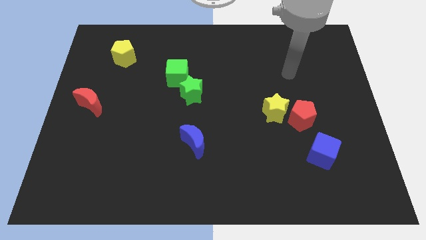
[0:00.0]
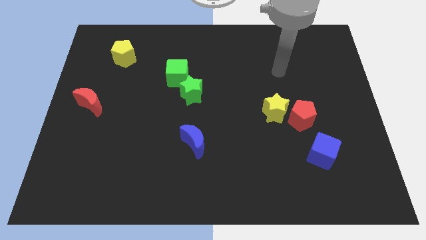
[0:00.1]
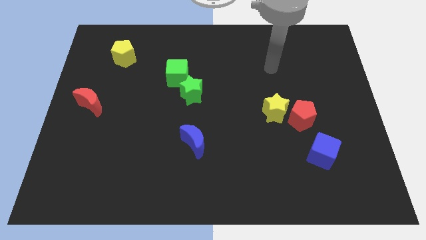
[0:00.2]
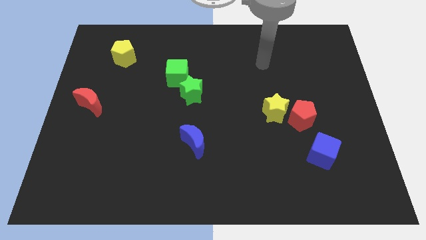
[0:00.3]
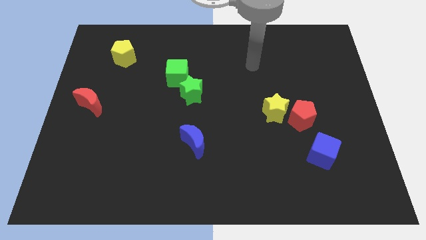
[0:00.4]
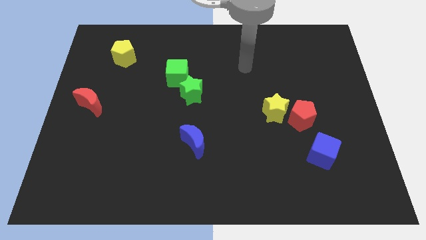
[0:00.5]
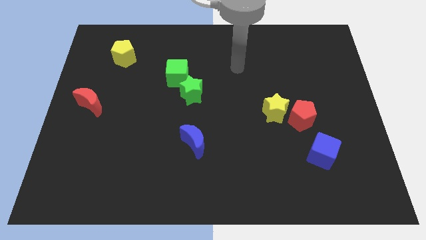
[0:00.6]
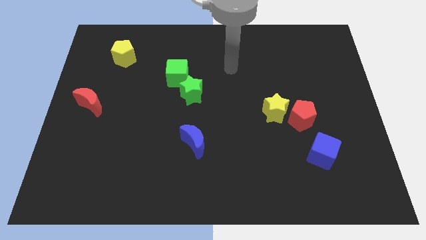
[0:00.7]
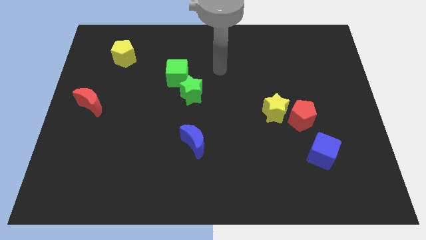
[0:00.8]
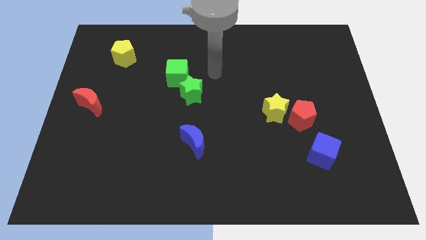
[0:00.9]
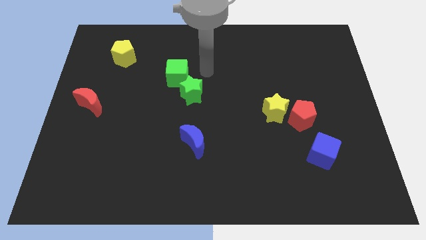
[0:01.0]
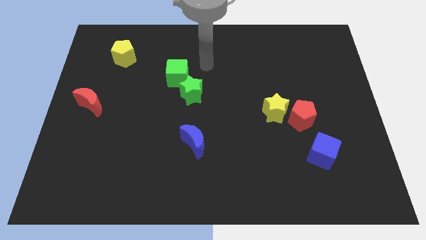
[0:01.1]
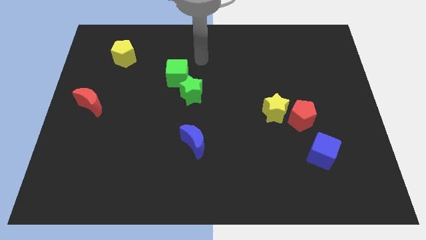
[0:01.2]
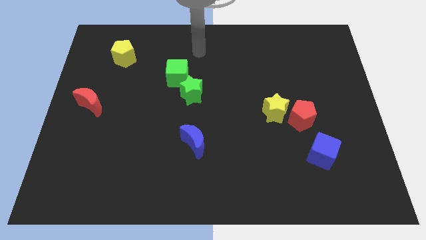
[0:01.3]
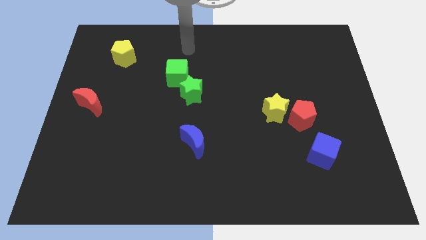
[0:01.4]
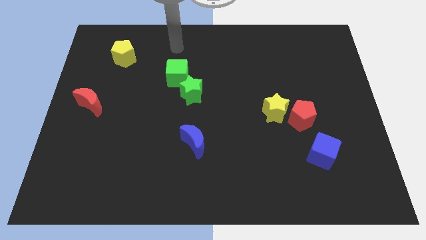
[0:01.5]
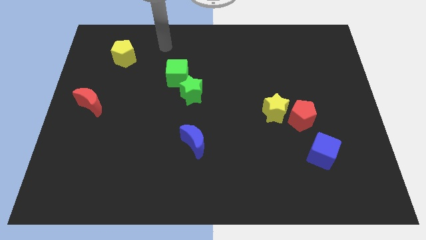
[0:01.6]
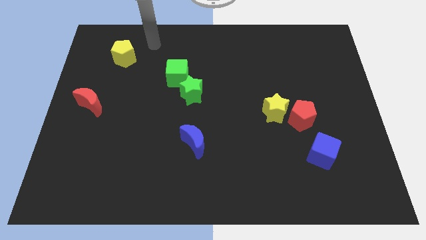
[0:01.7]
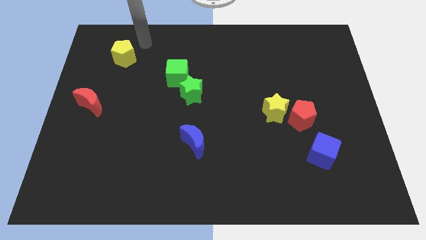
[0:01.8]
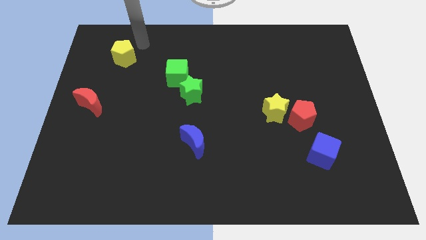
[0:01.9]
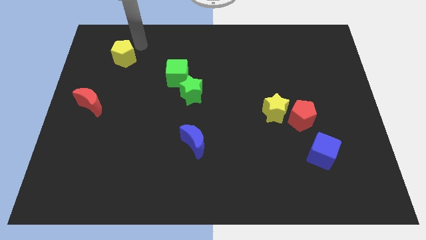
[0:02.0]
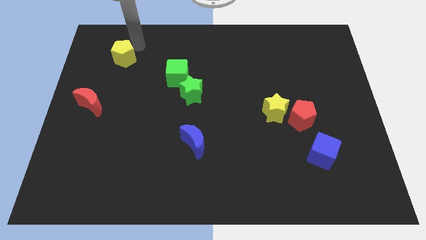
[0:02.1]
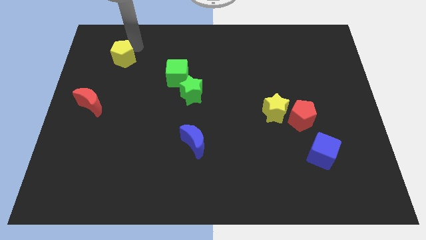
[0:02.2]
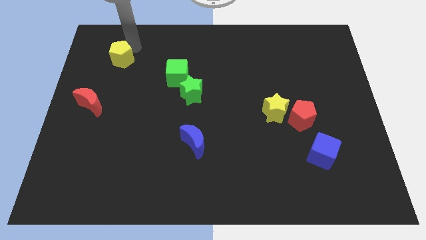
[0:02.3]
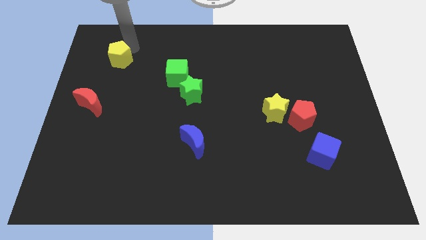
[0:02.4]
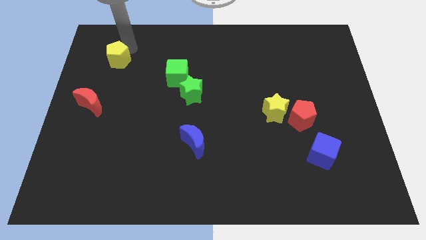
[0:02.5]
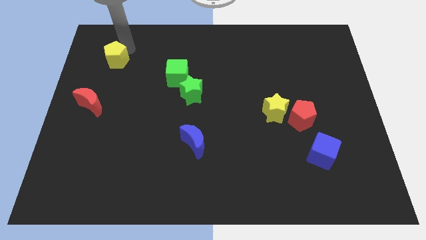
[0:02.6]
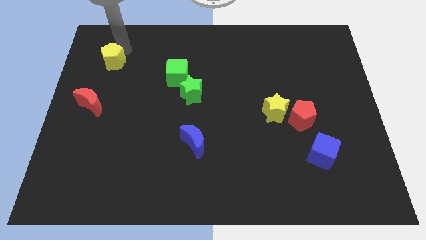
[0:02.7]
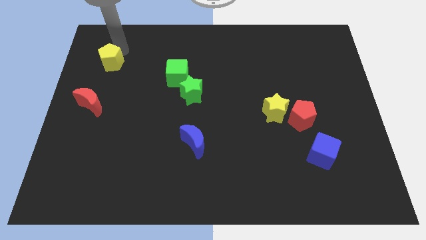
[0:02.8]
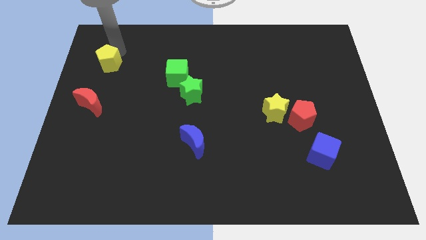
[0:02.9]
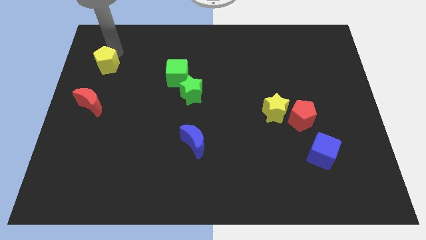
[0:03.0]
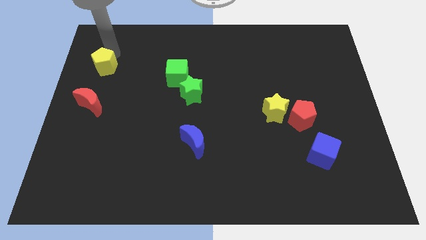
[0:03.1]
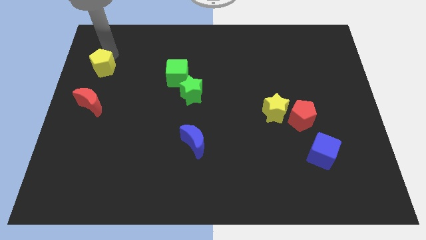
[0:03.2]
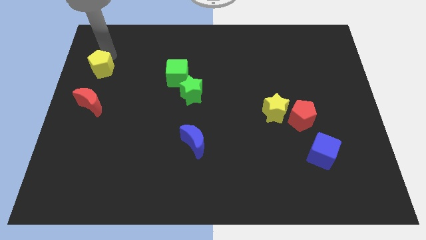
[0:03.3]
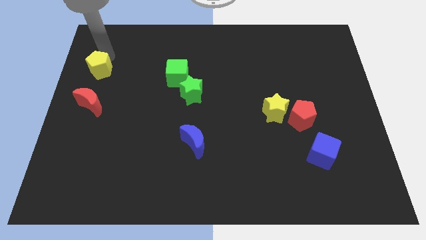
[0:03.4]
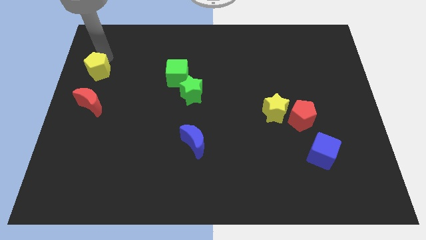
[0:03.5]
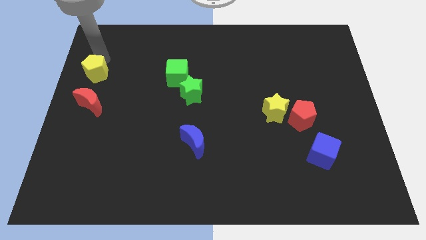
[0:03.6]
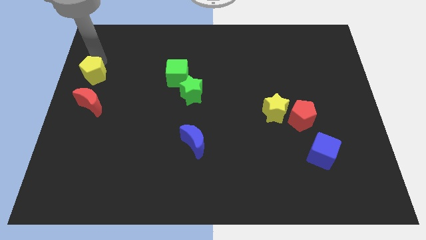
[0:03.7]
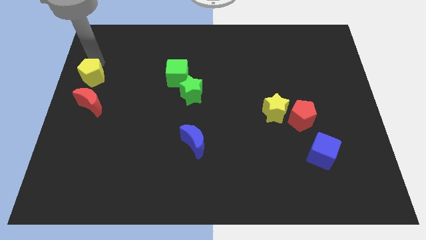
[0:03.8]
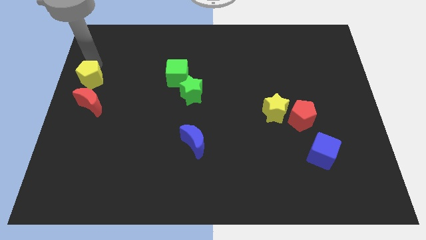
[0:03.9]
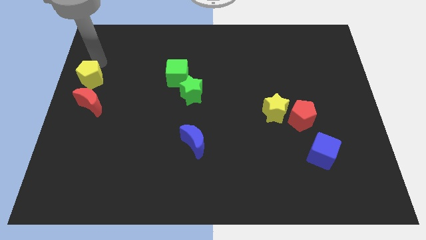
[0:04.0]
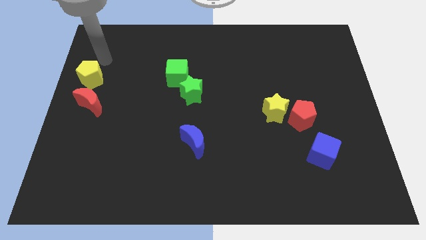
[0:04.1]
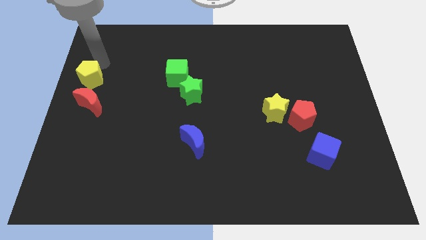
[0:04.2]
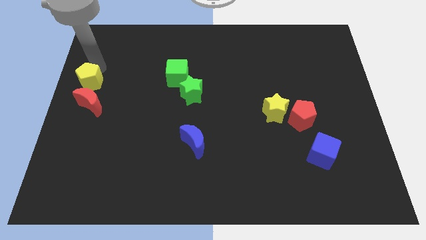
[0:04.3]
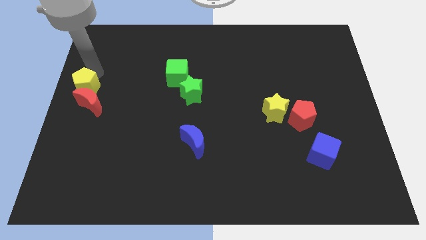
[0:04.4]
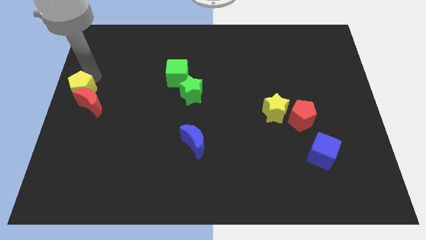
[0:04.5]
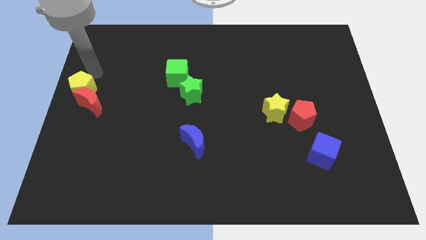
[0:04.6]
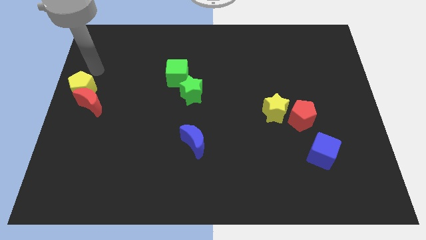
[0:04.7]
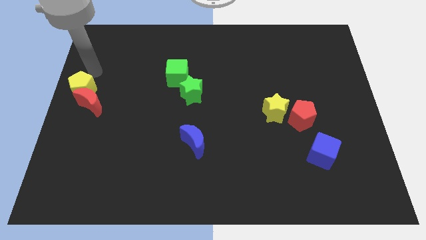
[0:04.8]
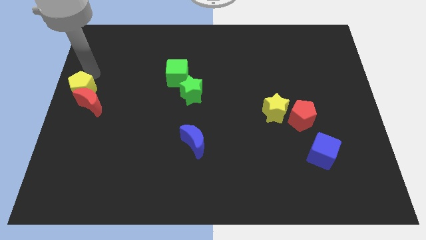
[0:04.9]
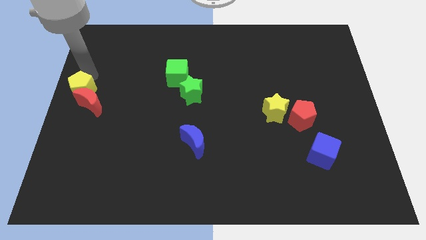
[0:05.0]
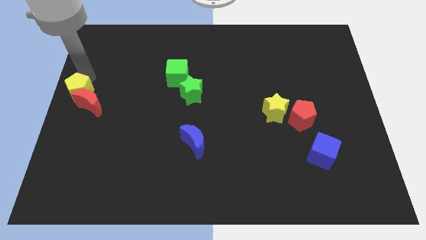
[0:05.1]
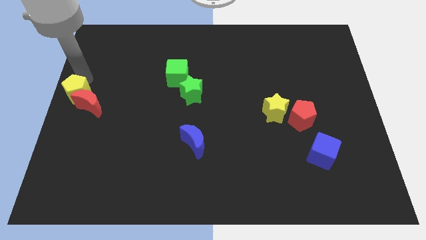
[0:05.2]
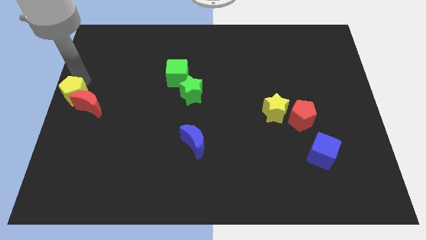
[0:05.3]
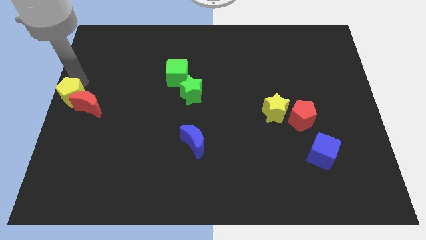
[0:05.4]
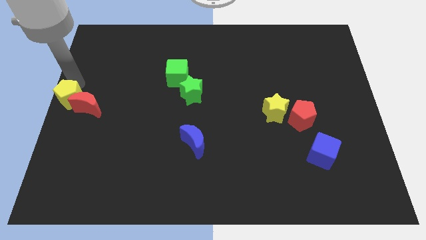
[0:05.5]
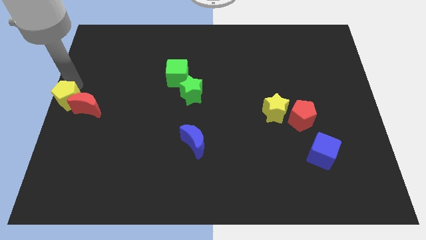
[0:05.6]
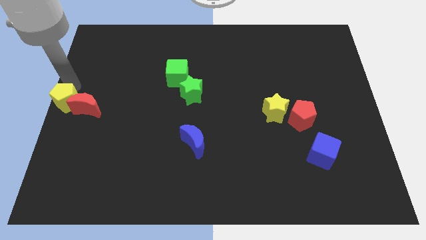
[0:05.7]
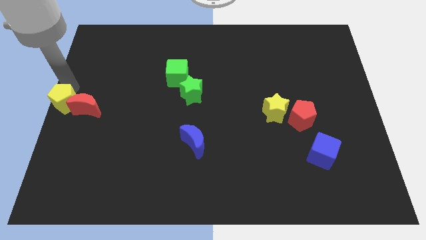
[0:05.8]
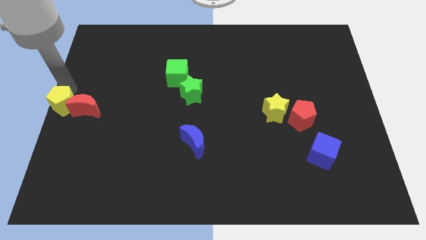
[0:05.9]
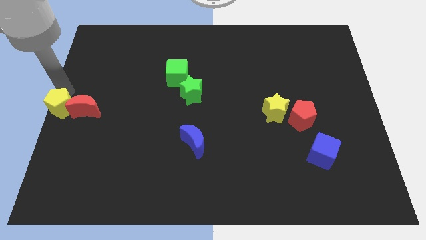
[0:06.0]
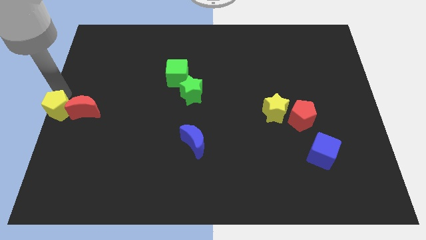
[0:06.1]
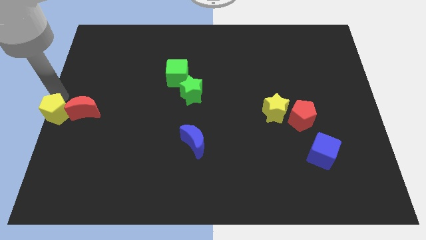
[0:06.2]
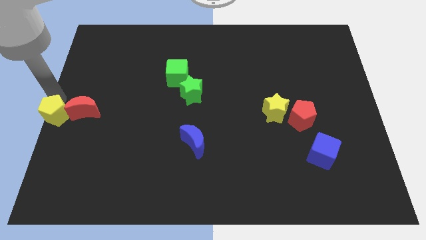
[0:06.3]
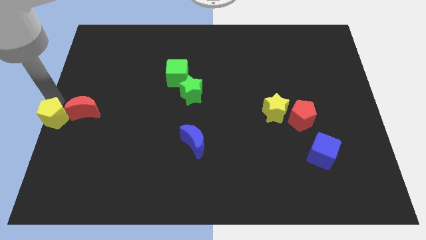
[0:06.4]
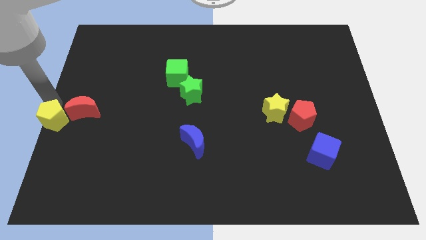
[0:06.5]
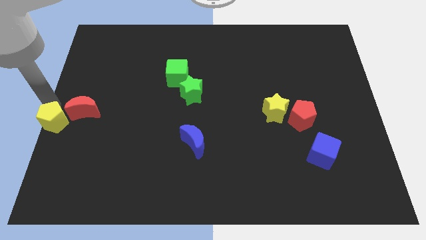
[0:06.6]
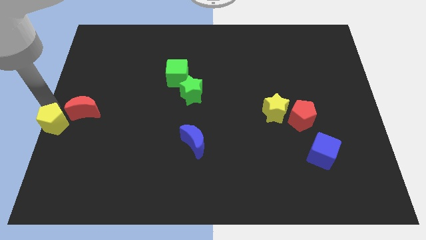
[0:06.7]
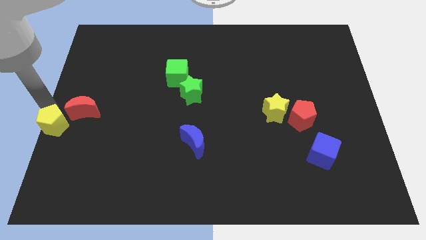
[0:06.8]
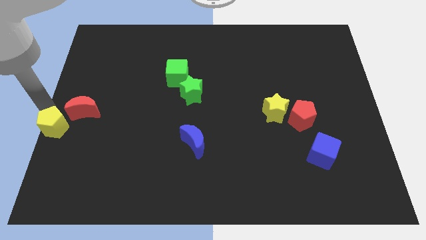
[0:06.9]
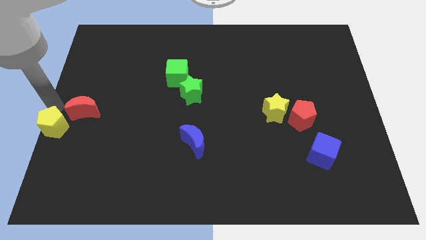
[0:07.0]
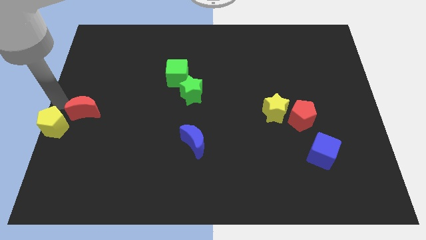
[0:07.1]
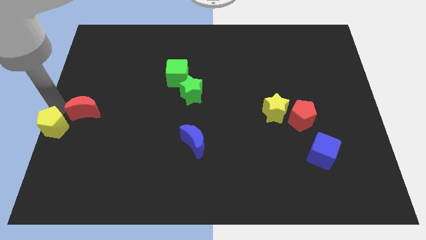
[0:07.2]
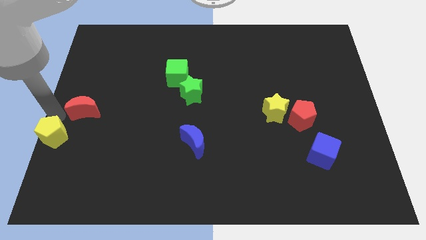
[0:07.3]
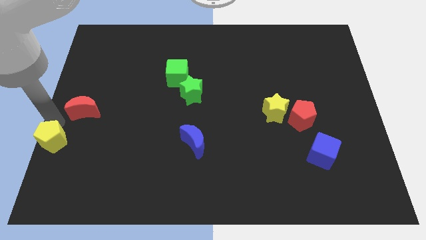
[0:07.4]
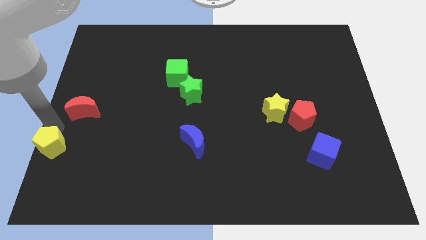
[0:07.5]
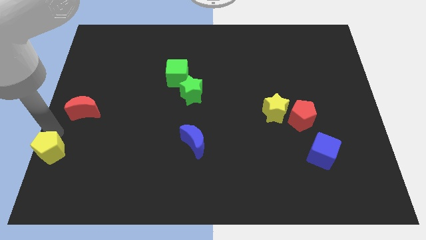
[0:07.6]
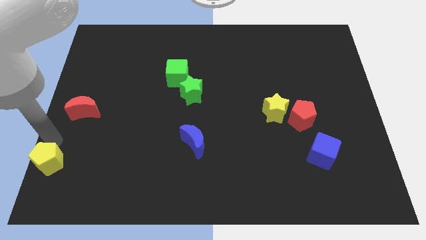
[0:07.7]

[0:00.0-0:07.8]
push the yellow pentagon to the bottom left of the board

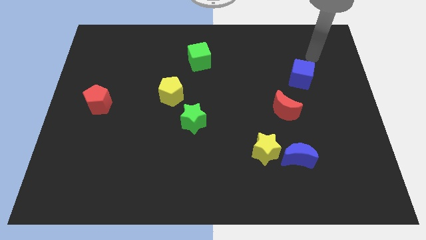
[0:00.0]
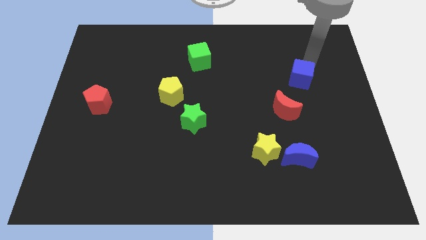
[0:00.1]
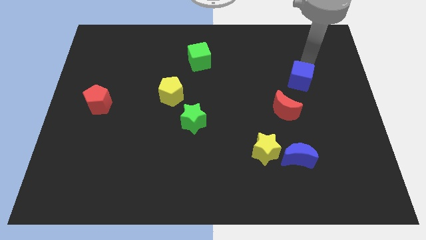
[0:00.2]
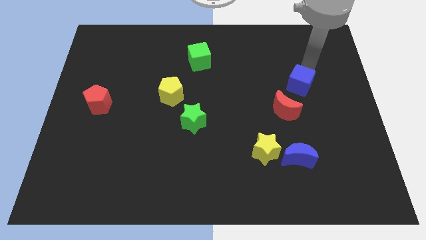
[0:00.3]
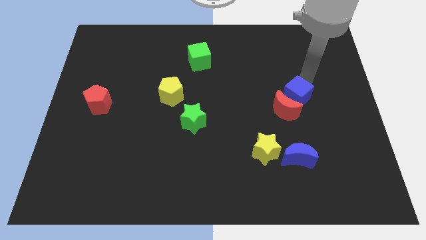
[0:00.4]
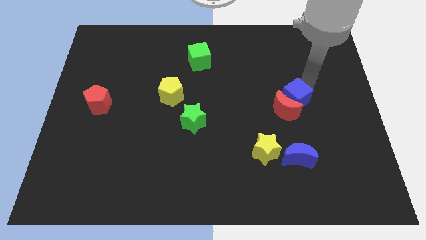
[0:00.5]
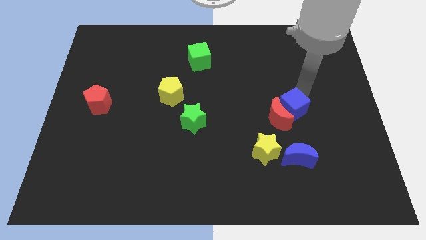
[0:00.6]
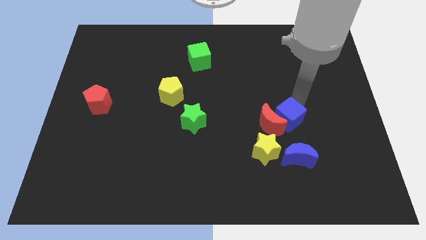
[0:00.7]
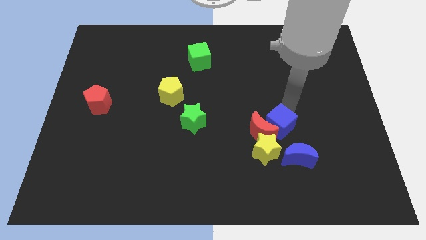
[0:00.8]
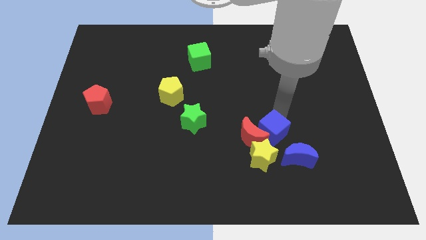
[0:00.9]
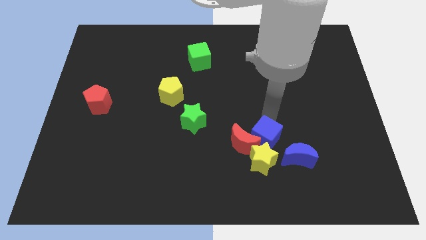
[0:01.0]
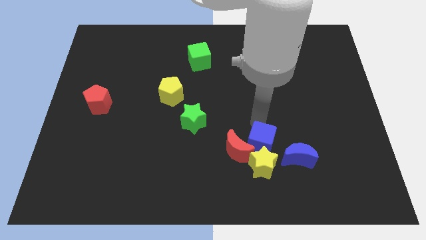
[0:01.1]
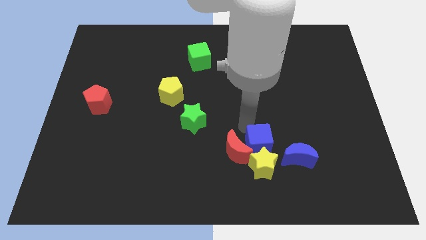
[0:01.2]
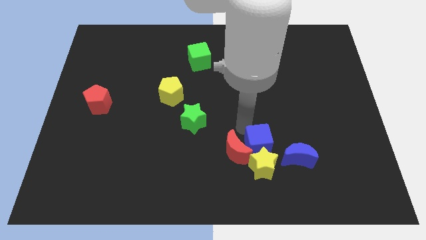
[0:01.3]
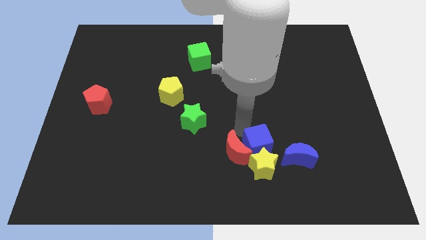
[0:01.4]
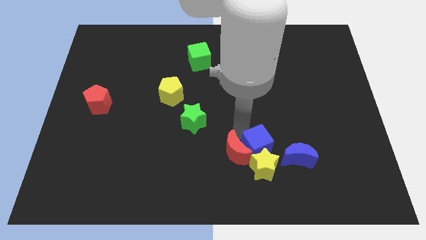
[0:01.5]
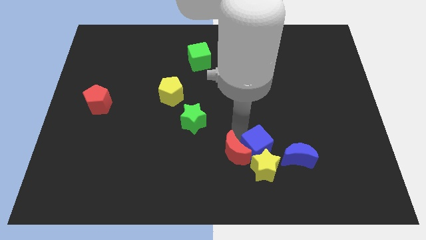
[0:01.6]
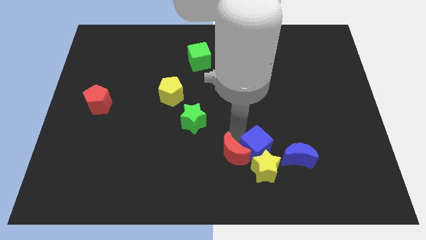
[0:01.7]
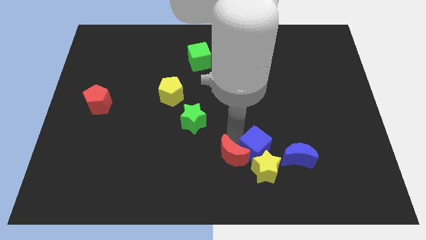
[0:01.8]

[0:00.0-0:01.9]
move the red moon to the bottom
